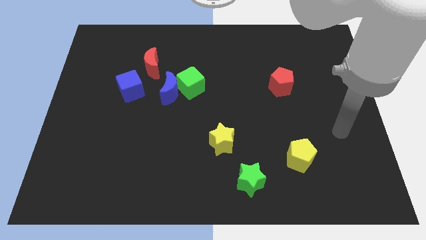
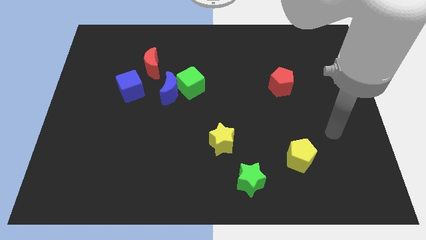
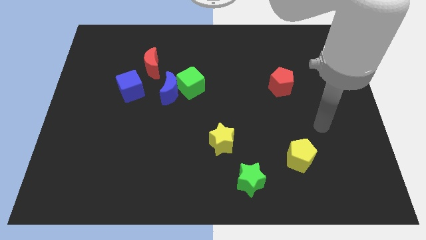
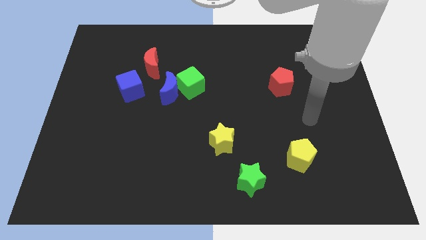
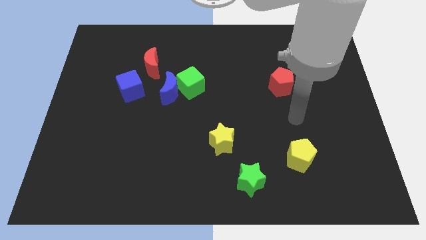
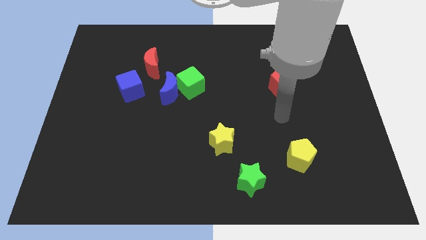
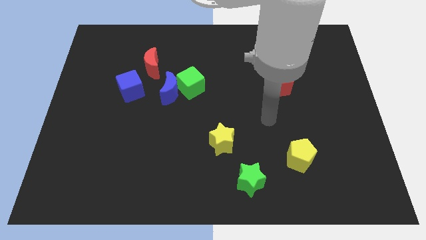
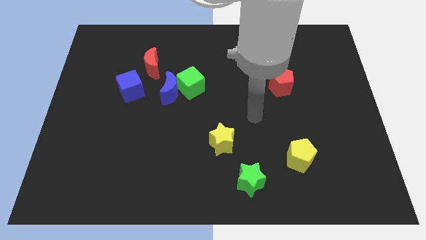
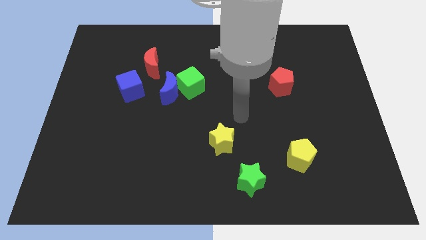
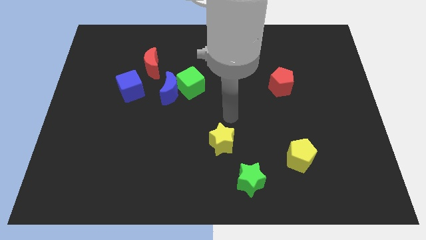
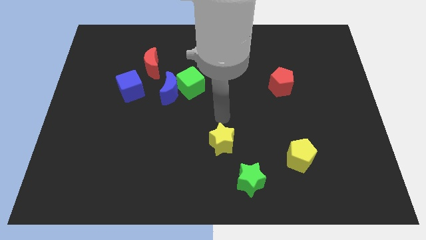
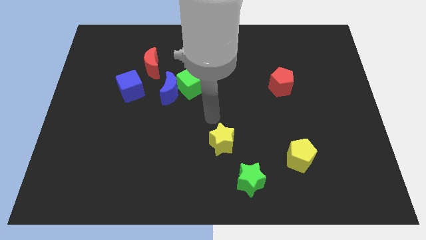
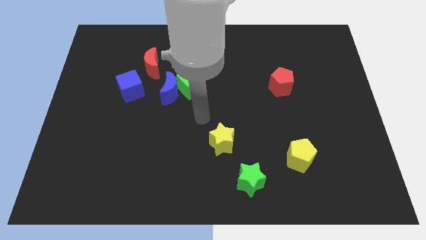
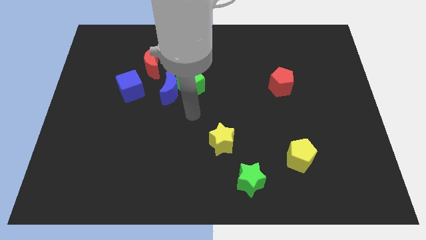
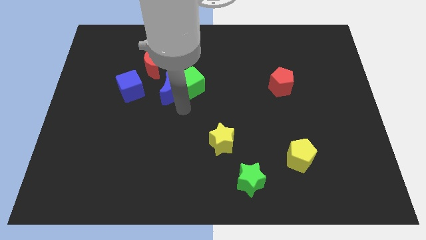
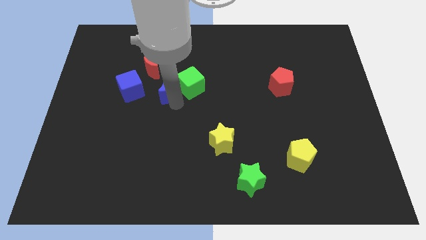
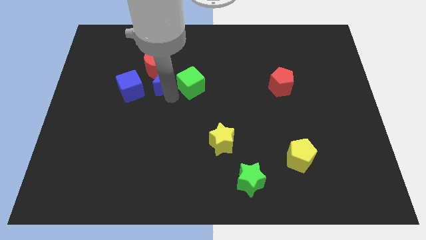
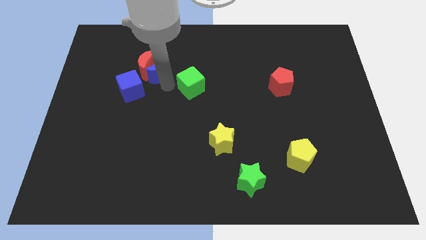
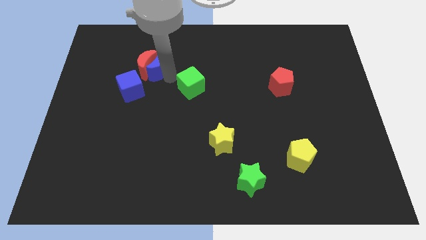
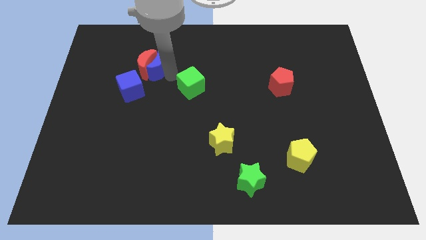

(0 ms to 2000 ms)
move the green cube away from the blue moon

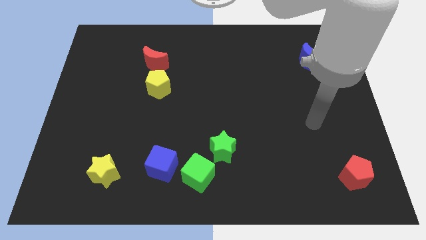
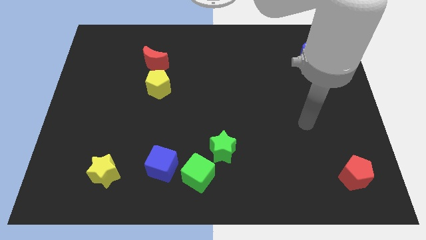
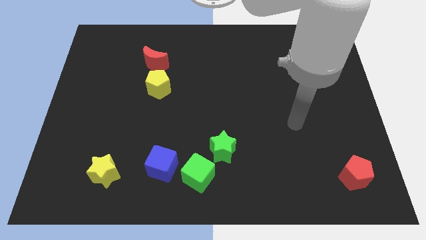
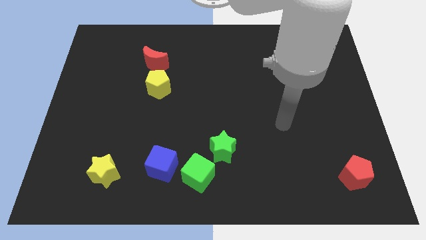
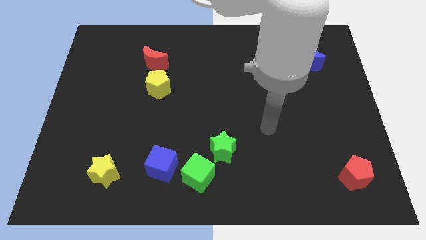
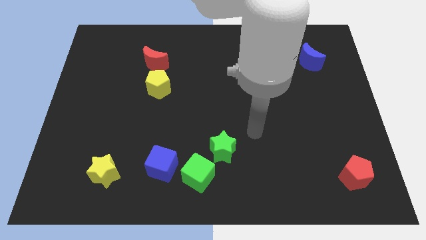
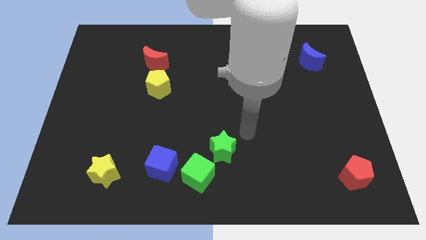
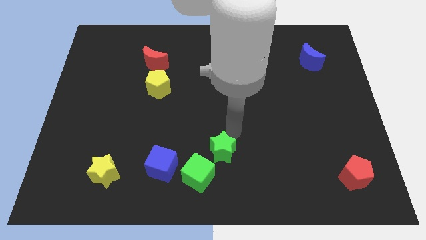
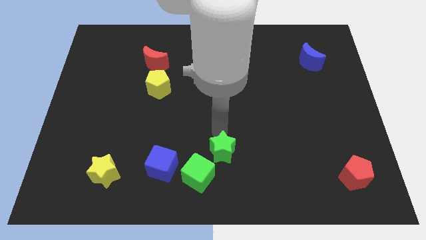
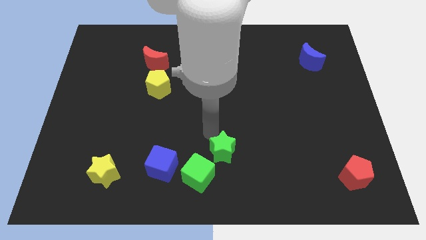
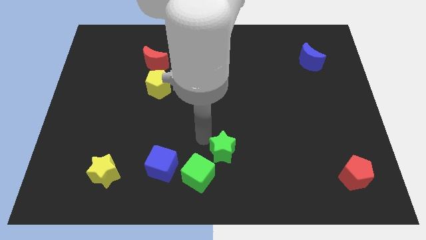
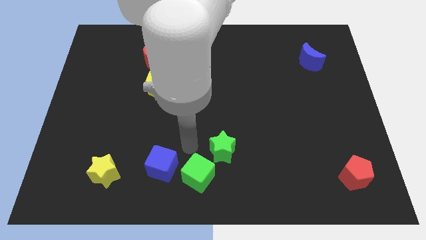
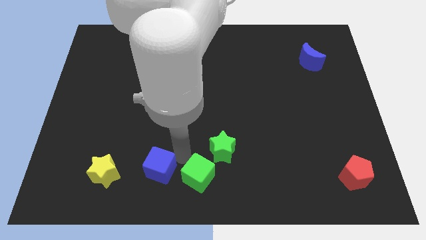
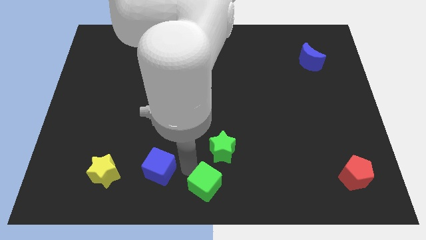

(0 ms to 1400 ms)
separate the blue cube from the green cube

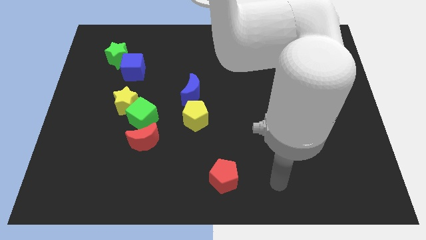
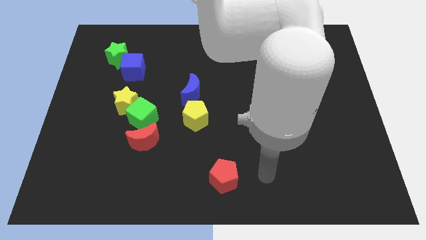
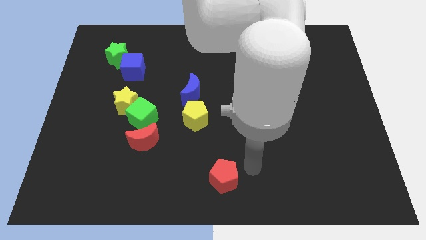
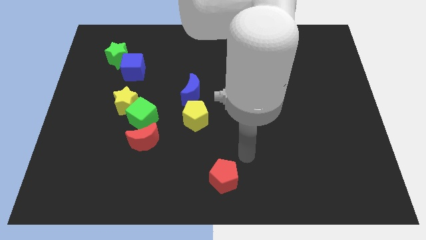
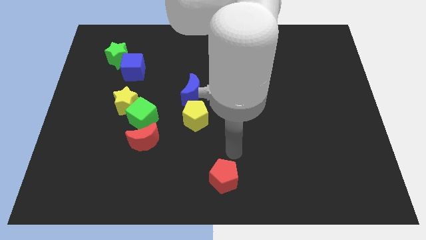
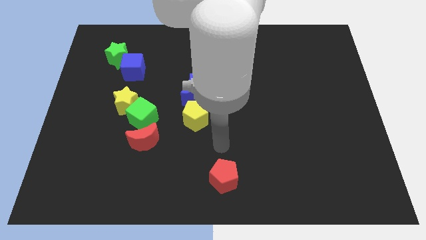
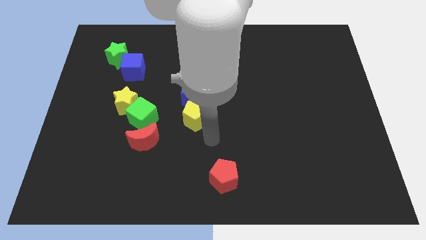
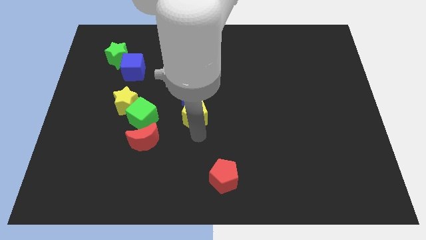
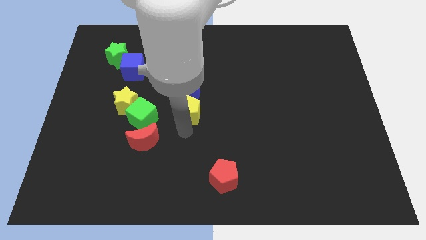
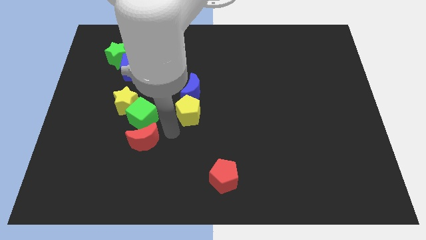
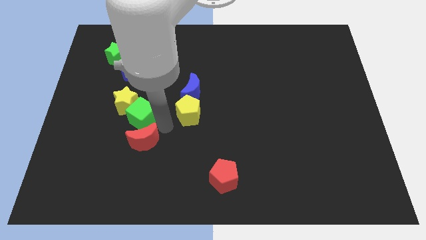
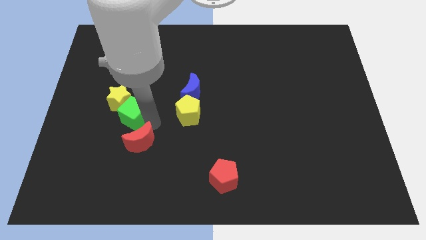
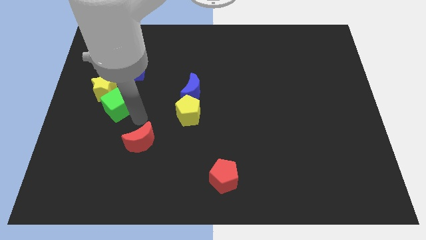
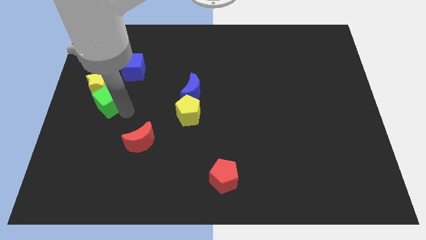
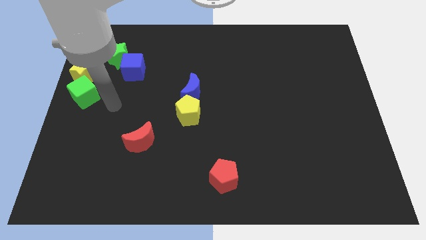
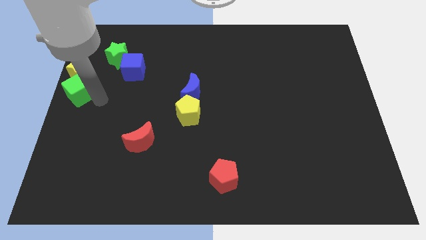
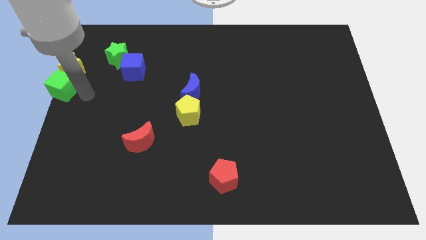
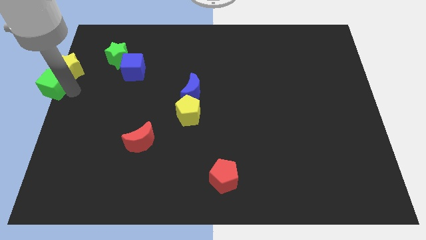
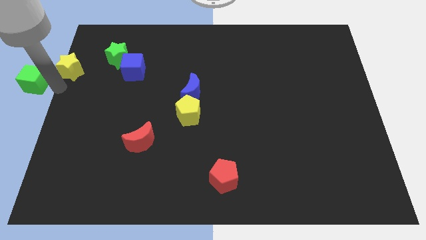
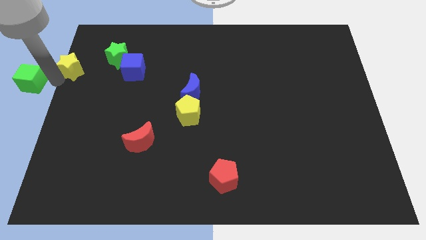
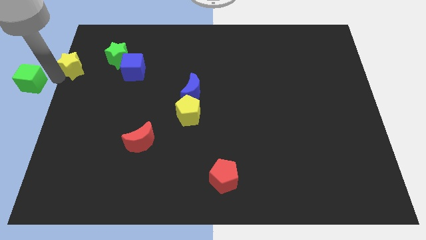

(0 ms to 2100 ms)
move the yellow star away from the green cube

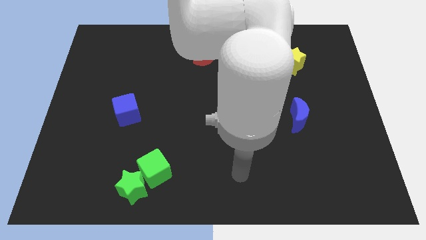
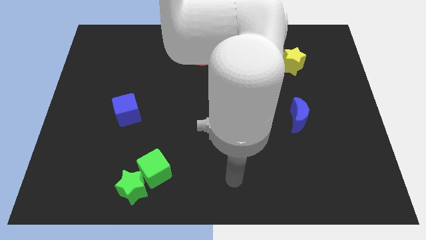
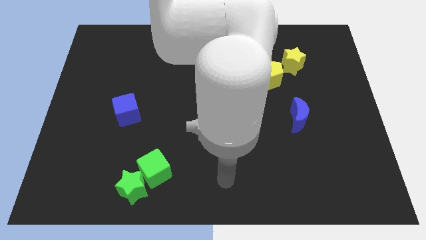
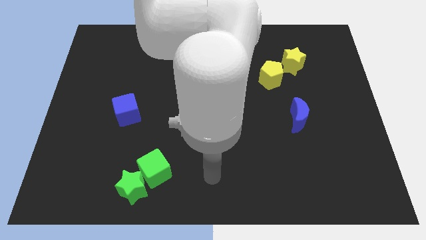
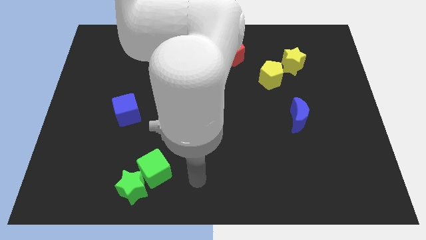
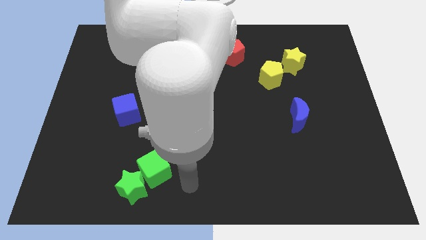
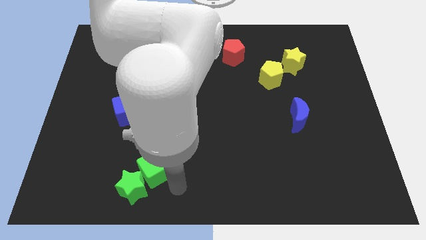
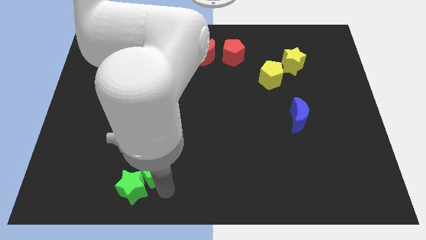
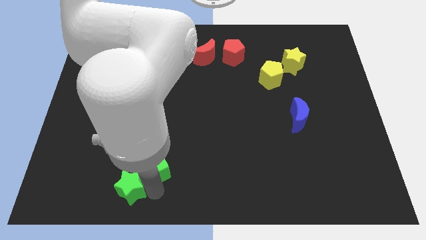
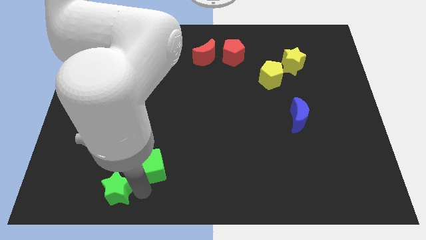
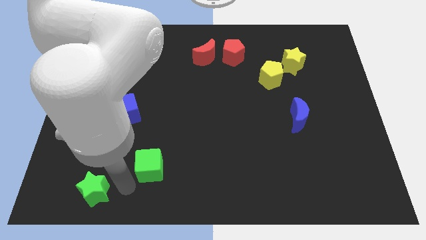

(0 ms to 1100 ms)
pull the green cube apart from the green star

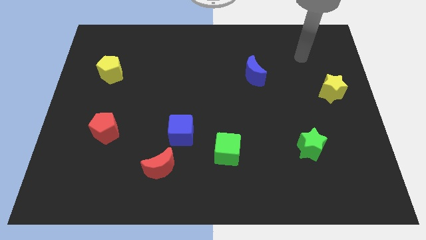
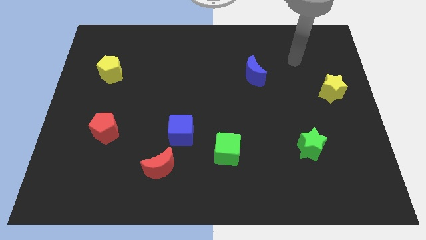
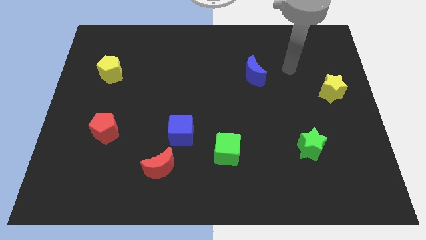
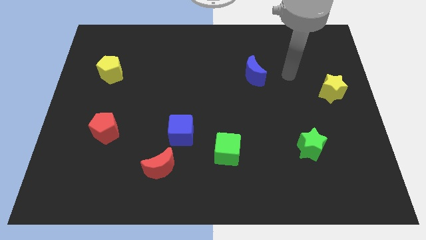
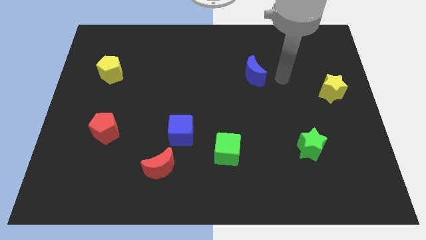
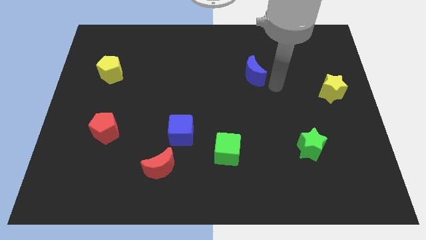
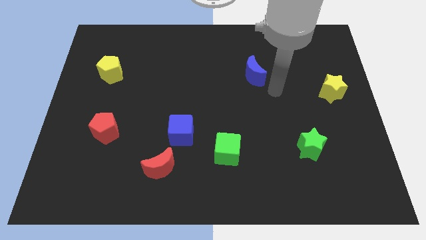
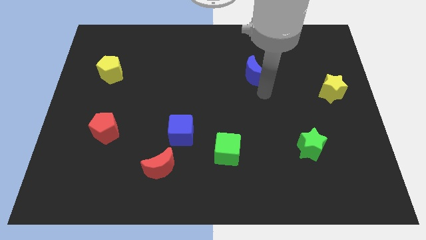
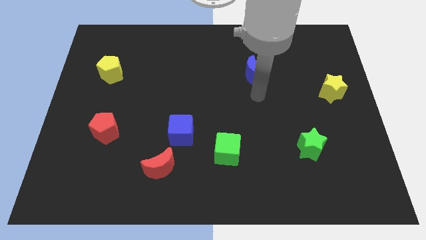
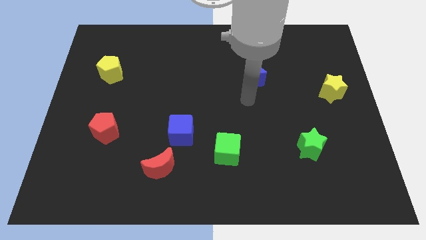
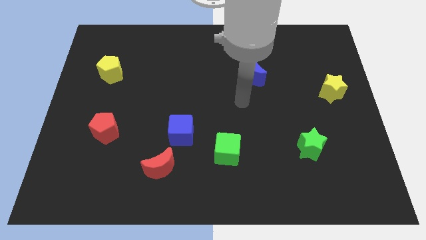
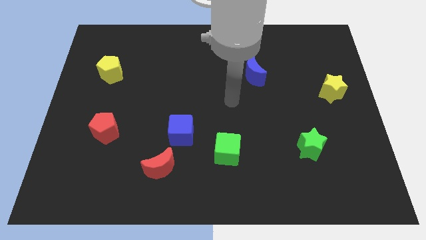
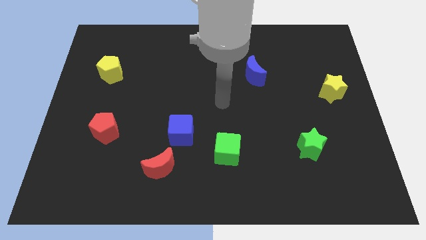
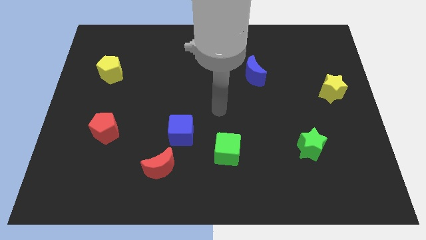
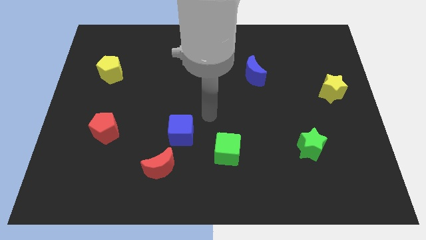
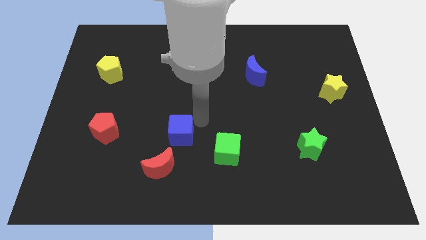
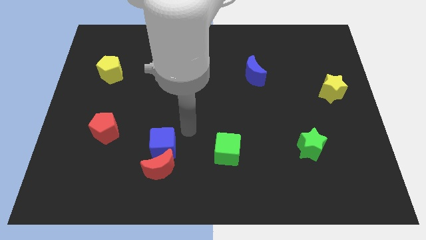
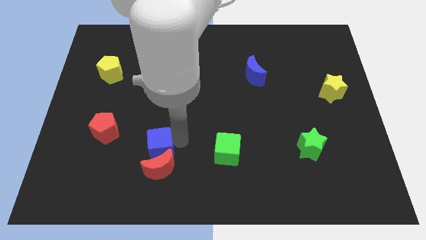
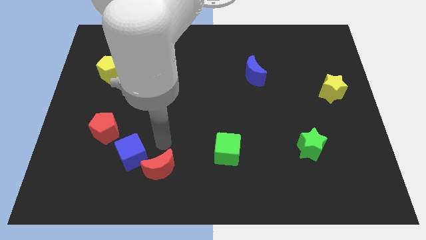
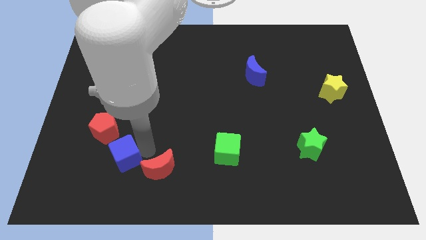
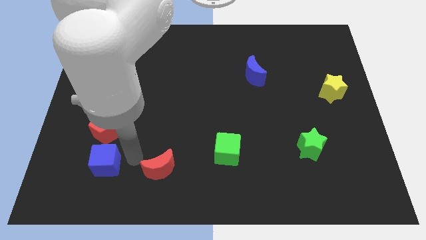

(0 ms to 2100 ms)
pull the red moon apart from the blue cube

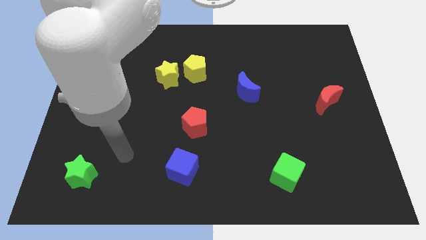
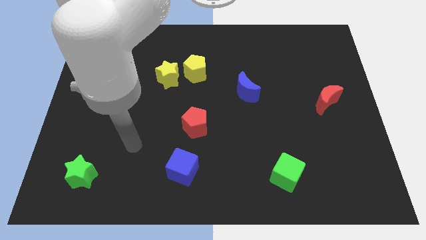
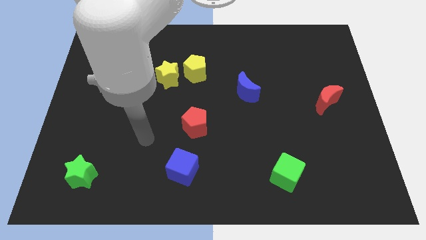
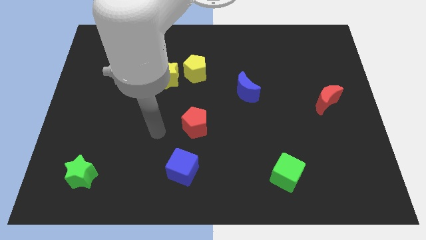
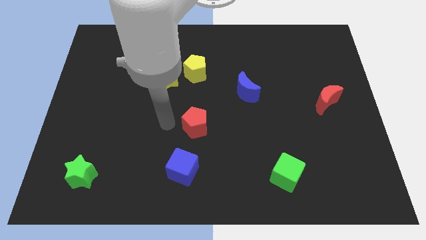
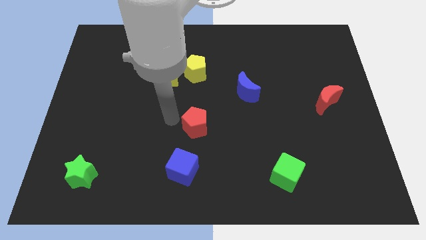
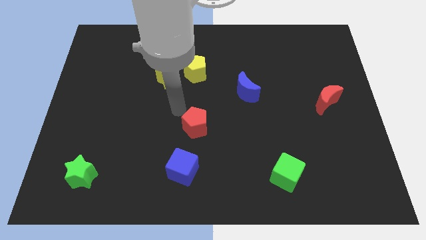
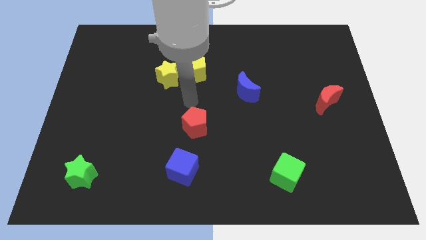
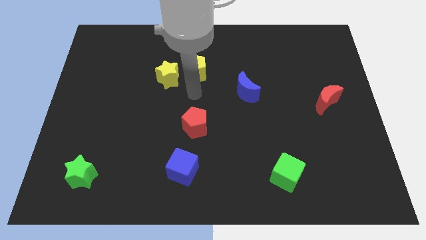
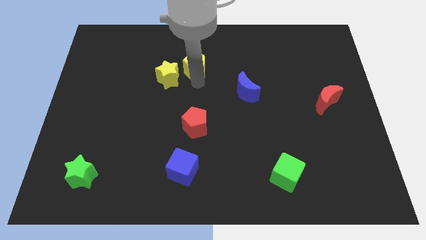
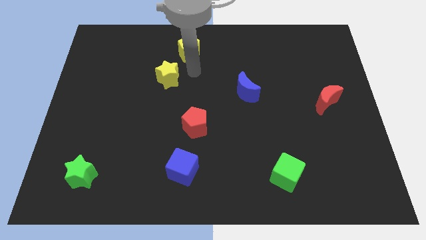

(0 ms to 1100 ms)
separate the yellow star from the yellow pentagon
